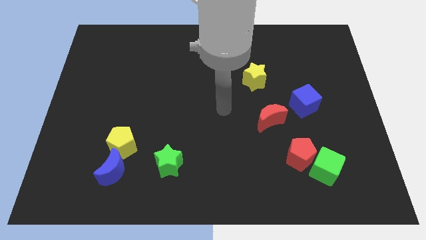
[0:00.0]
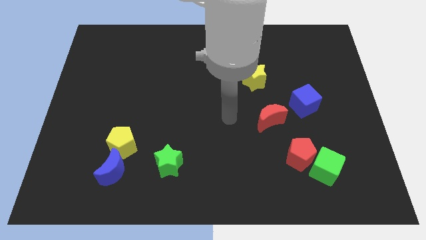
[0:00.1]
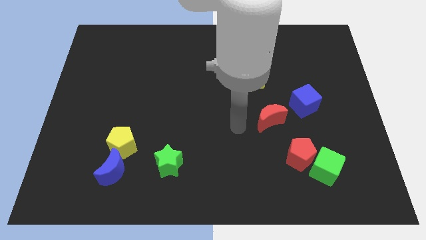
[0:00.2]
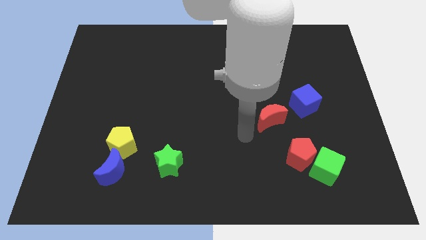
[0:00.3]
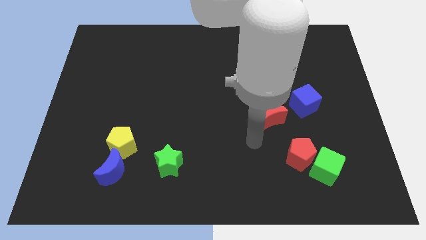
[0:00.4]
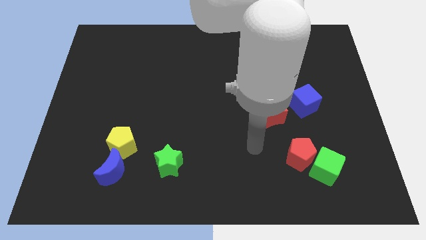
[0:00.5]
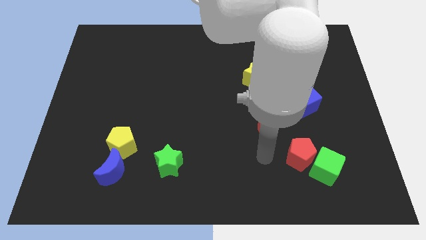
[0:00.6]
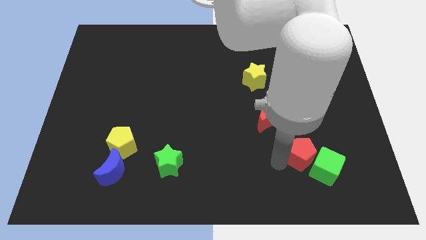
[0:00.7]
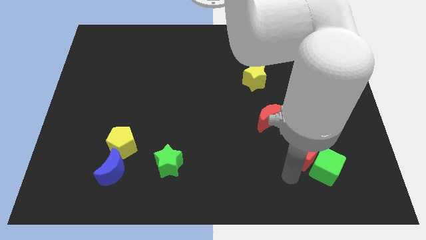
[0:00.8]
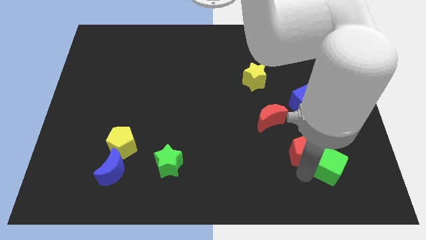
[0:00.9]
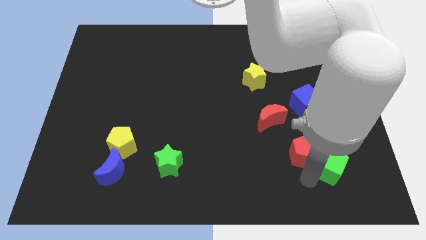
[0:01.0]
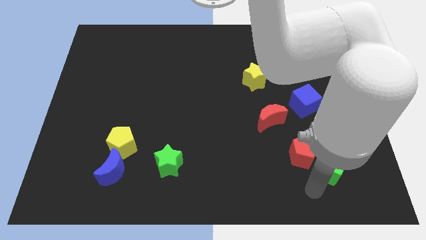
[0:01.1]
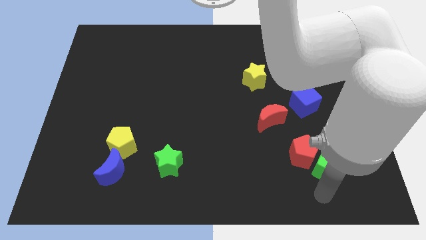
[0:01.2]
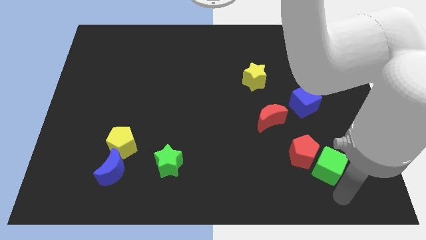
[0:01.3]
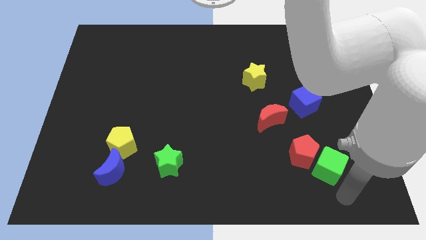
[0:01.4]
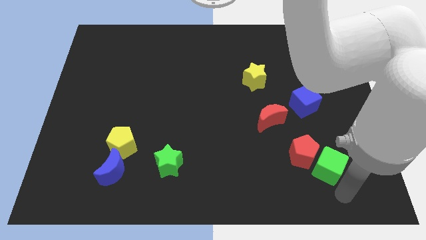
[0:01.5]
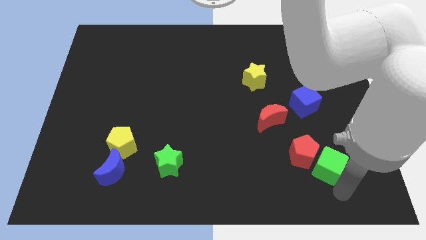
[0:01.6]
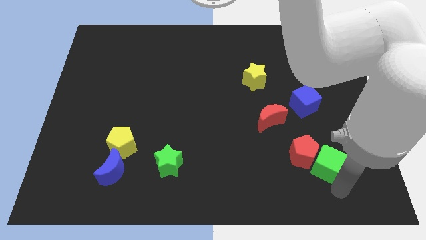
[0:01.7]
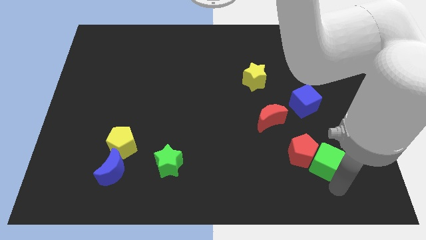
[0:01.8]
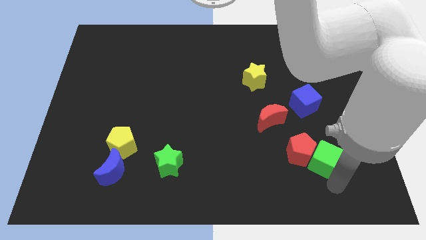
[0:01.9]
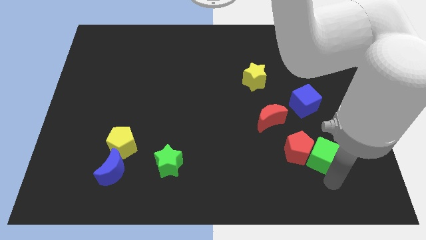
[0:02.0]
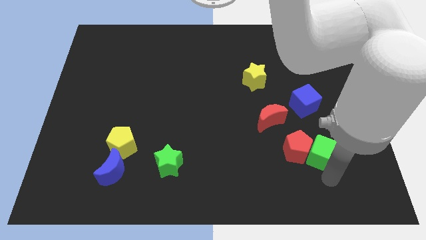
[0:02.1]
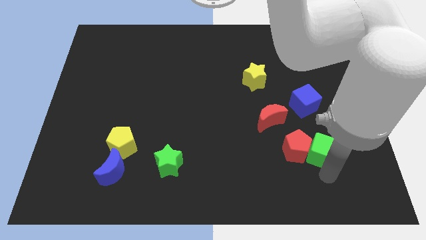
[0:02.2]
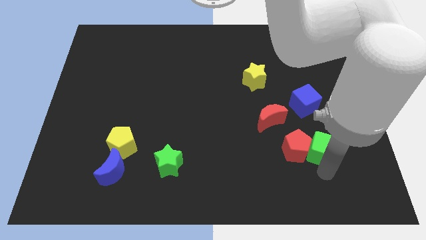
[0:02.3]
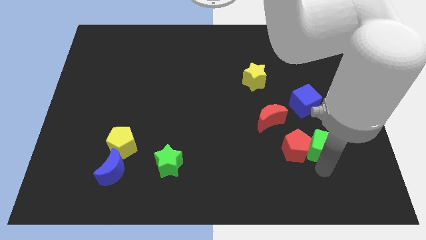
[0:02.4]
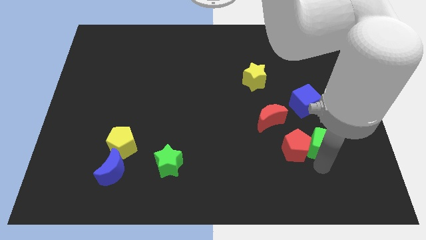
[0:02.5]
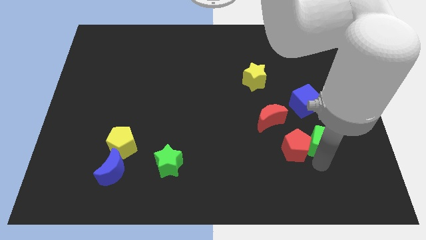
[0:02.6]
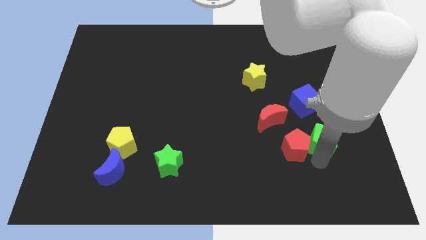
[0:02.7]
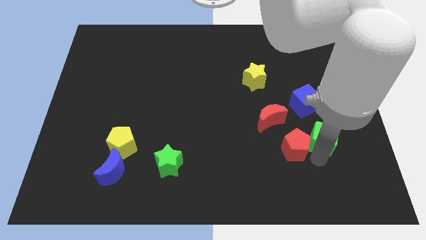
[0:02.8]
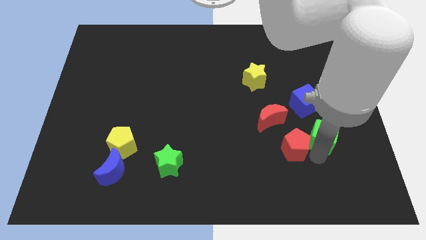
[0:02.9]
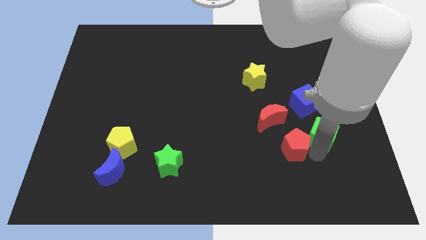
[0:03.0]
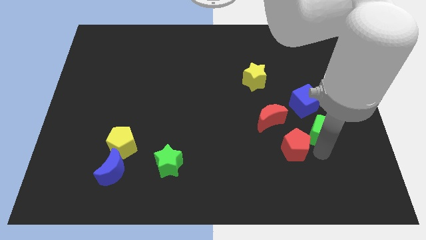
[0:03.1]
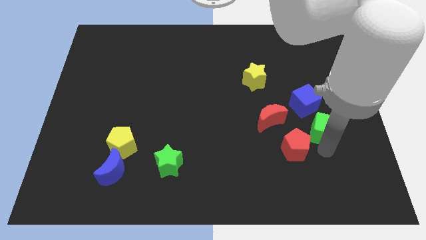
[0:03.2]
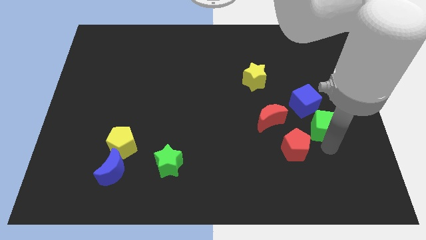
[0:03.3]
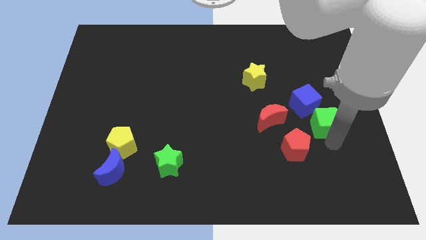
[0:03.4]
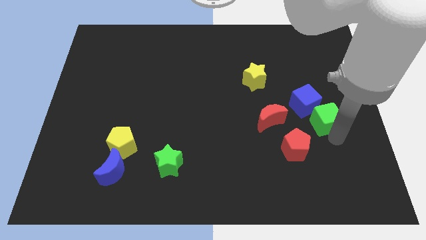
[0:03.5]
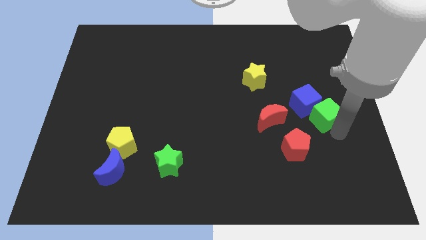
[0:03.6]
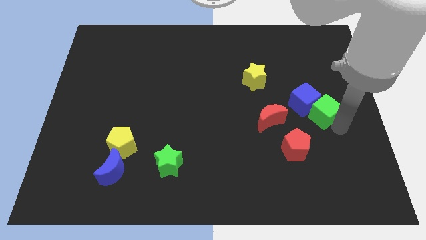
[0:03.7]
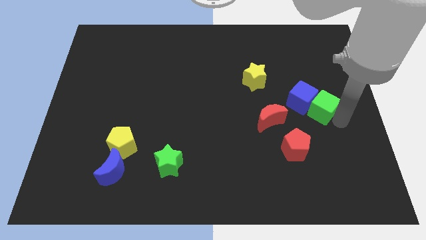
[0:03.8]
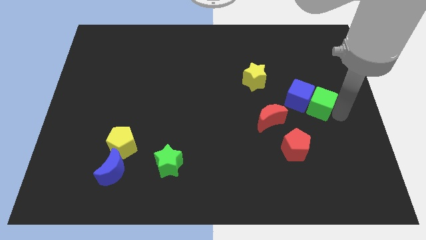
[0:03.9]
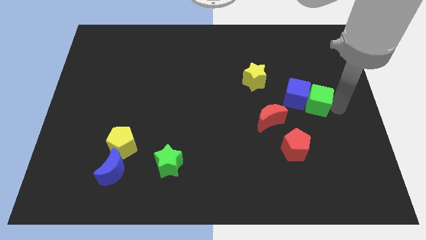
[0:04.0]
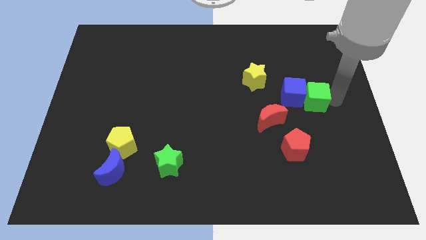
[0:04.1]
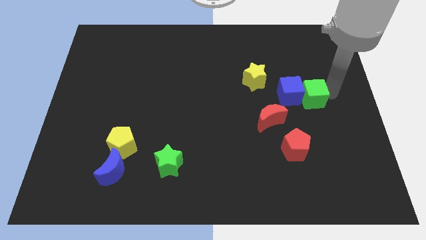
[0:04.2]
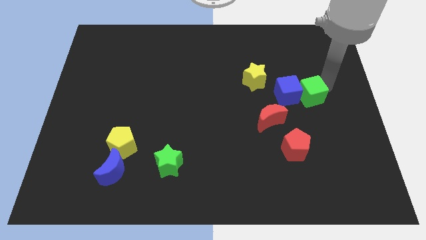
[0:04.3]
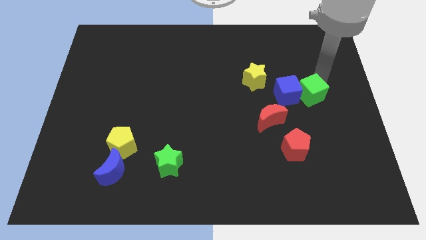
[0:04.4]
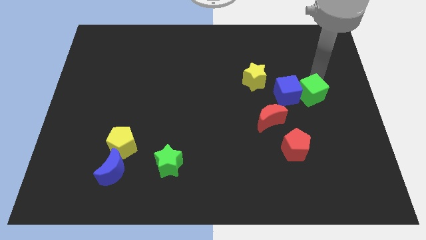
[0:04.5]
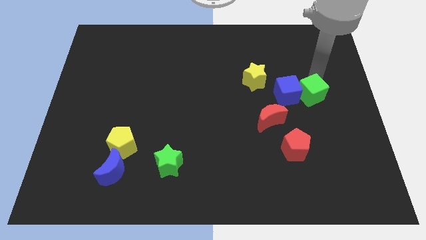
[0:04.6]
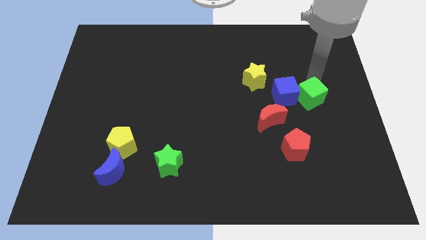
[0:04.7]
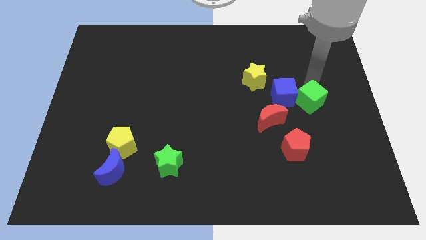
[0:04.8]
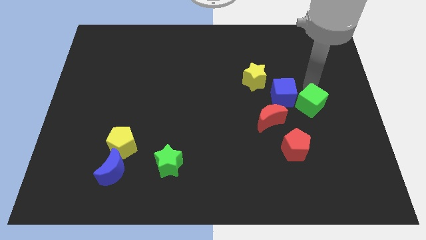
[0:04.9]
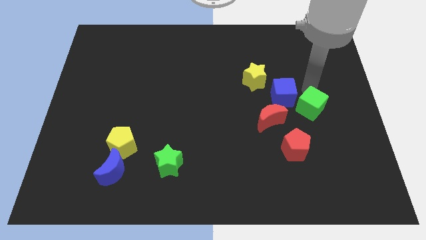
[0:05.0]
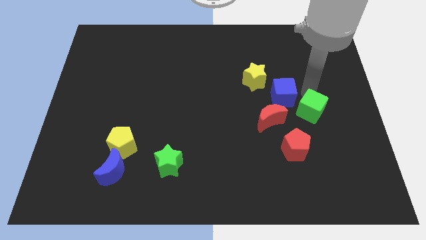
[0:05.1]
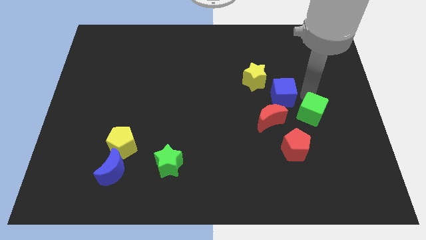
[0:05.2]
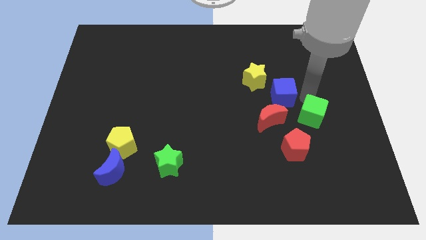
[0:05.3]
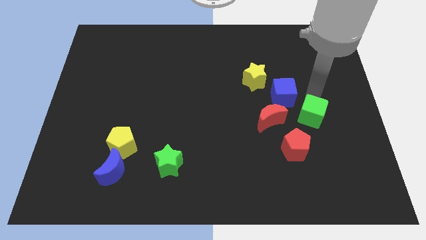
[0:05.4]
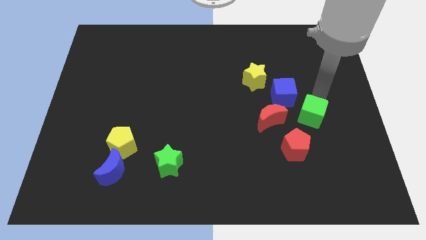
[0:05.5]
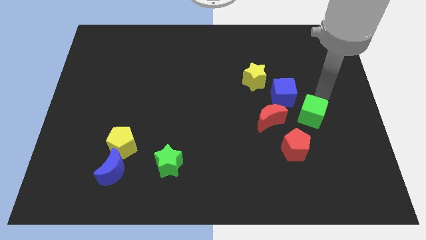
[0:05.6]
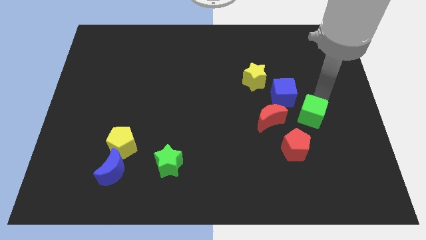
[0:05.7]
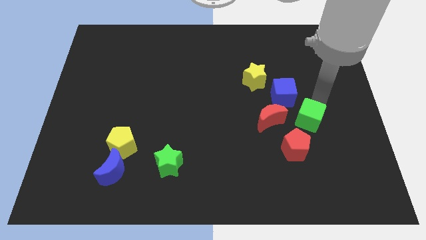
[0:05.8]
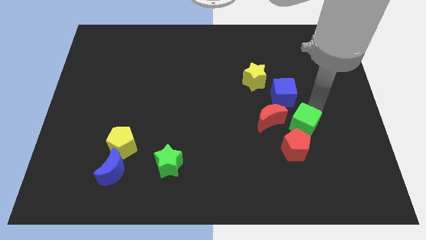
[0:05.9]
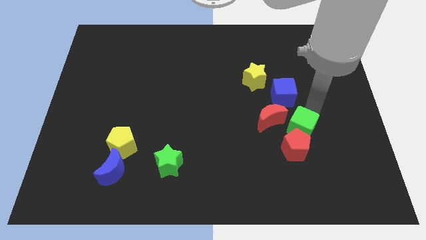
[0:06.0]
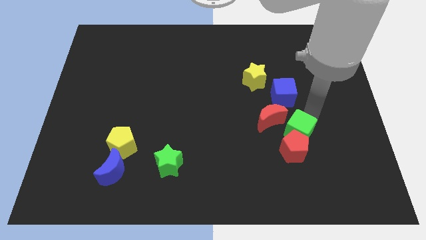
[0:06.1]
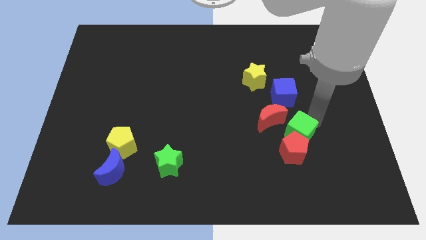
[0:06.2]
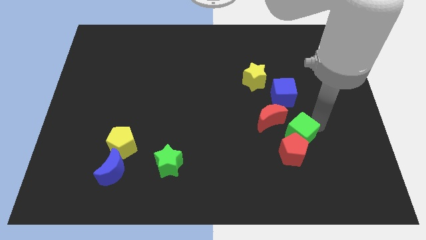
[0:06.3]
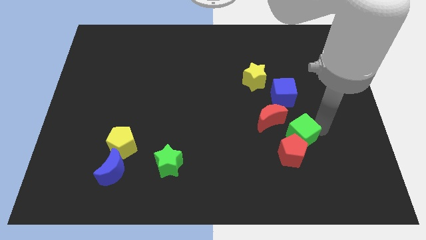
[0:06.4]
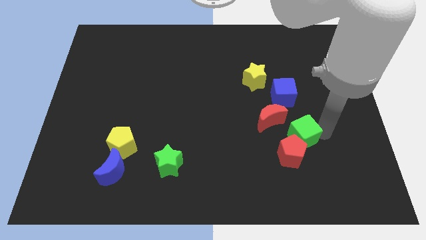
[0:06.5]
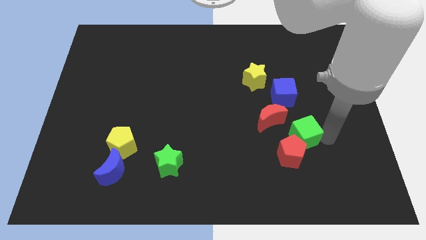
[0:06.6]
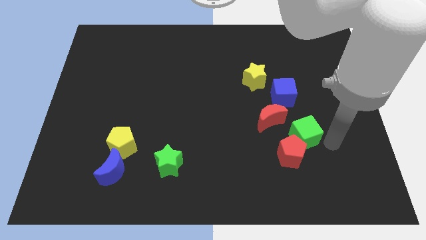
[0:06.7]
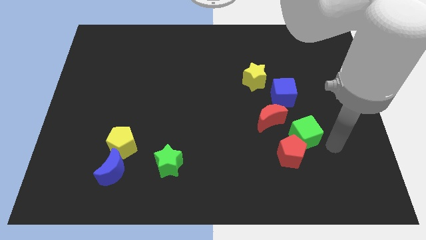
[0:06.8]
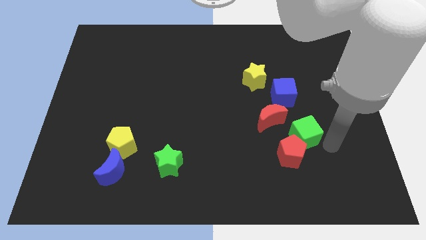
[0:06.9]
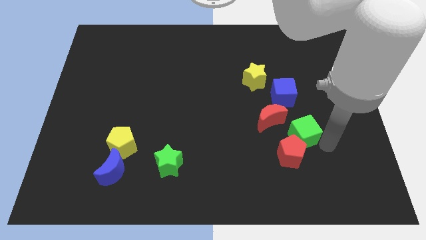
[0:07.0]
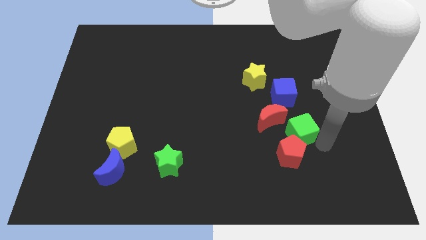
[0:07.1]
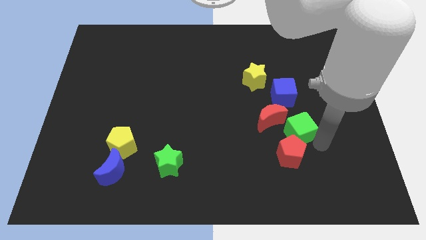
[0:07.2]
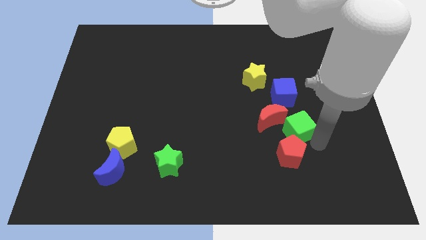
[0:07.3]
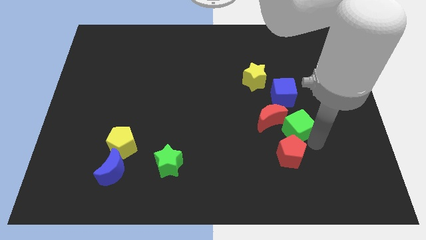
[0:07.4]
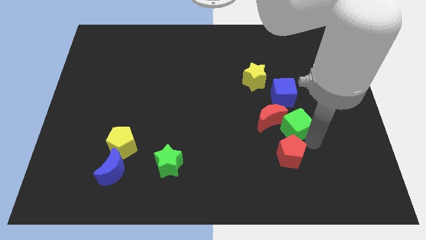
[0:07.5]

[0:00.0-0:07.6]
move the green cube to the red moon
